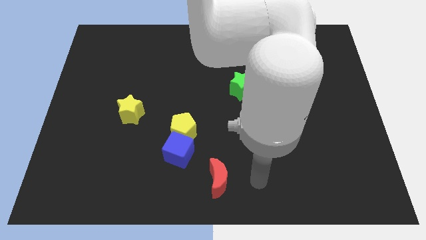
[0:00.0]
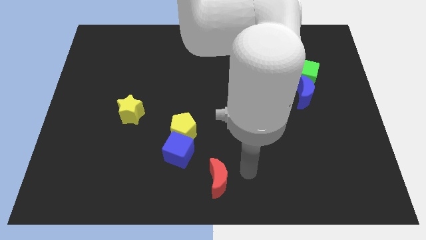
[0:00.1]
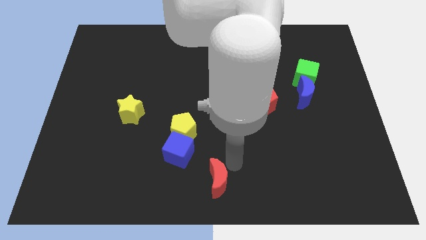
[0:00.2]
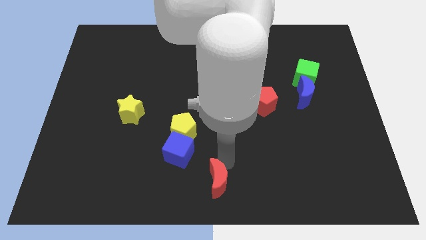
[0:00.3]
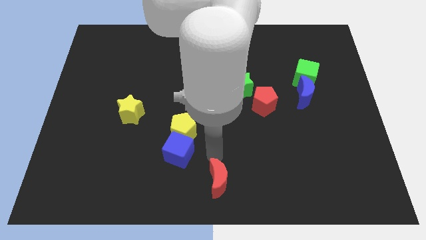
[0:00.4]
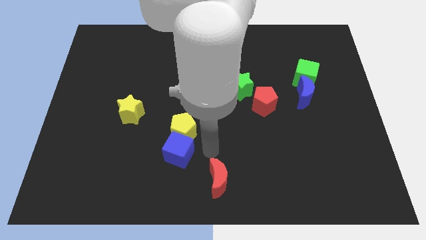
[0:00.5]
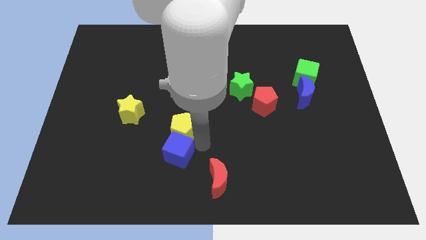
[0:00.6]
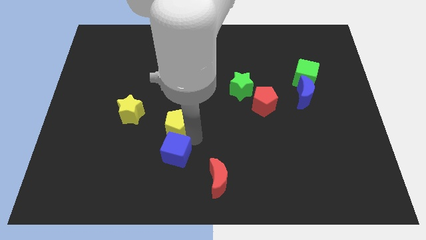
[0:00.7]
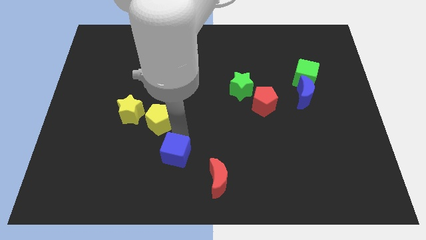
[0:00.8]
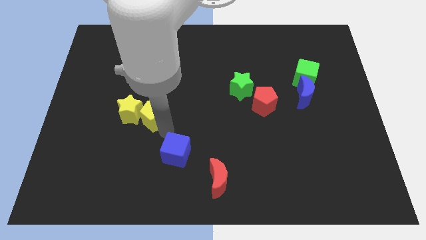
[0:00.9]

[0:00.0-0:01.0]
separate the blue cube from the yellow pentagon

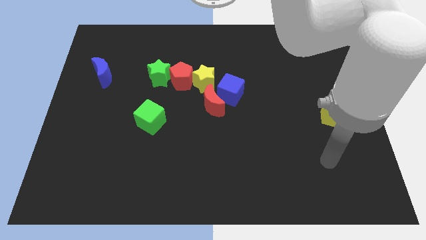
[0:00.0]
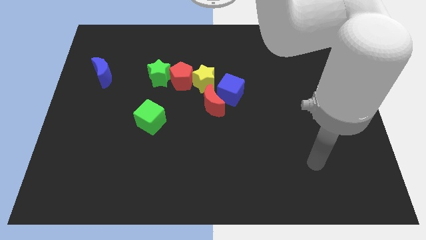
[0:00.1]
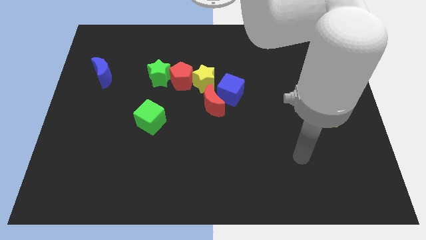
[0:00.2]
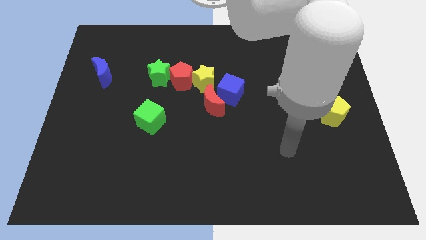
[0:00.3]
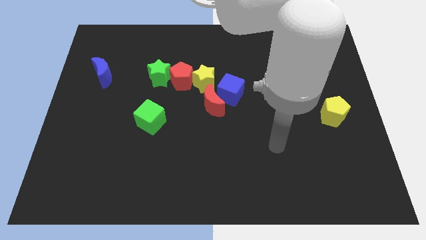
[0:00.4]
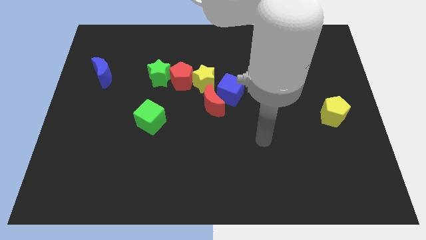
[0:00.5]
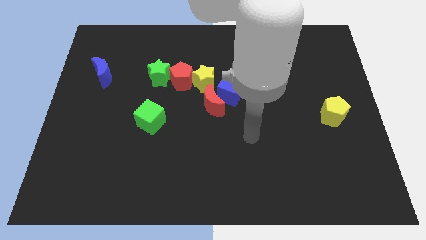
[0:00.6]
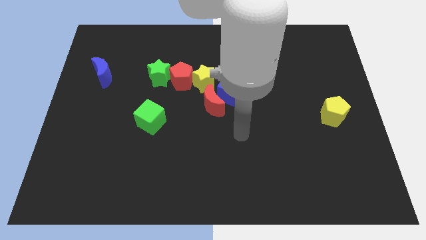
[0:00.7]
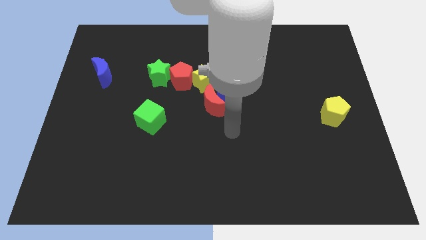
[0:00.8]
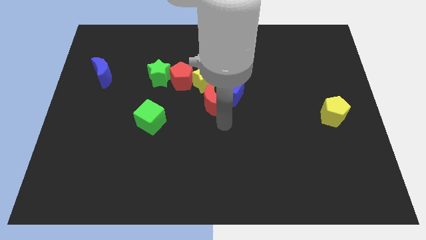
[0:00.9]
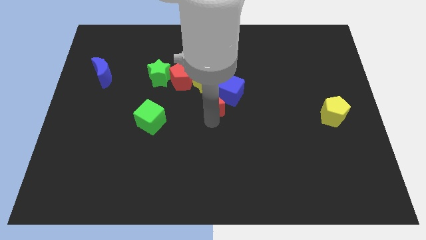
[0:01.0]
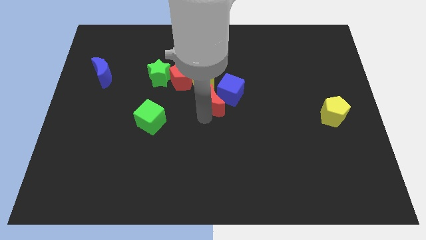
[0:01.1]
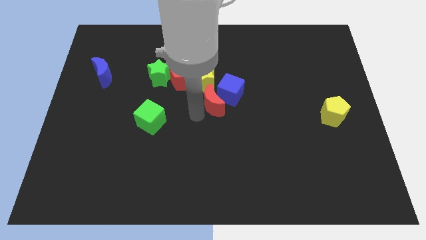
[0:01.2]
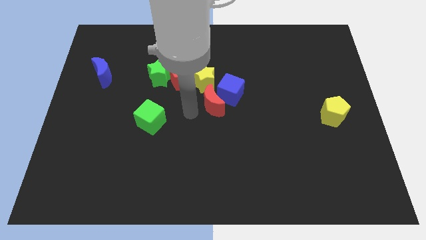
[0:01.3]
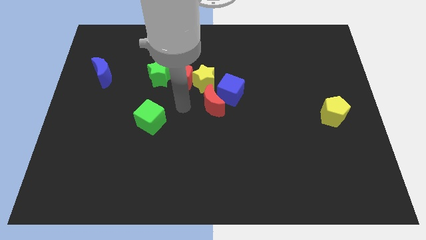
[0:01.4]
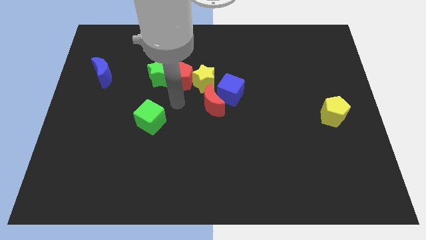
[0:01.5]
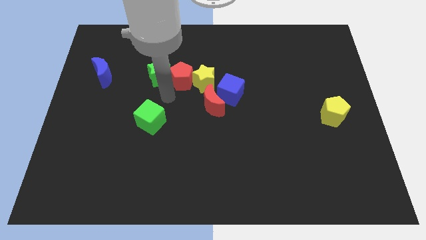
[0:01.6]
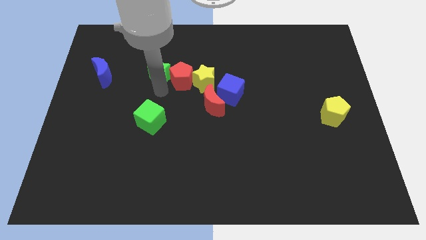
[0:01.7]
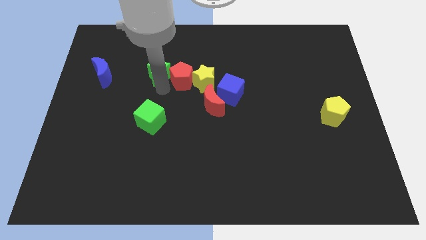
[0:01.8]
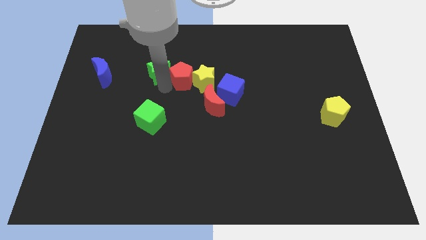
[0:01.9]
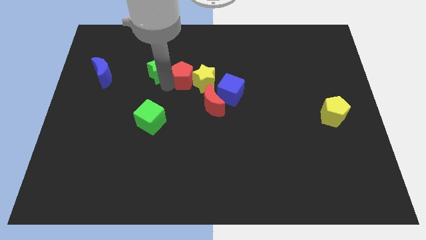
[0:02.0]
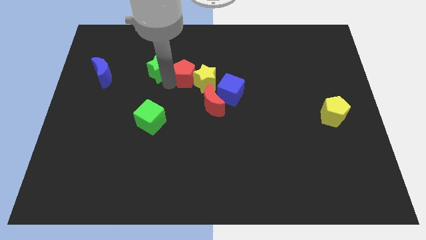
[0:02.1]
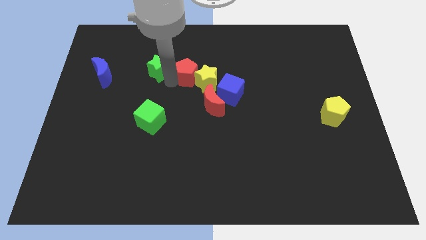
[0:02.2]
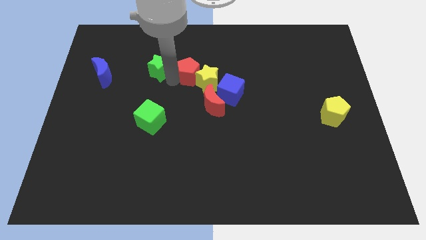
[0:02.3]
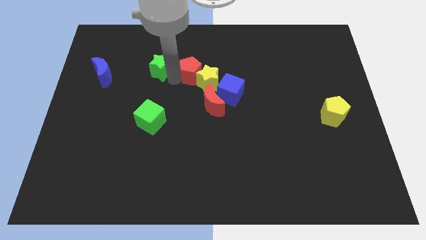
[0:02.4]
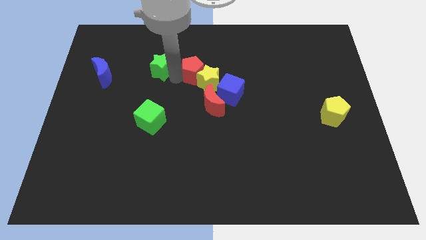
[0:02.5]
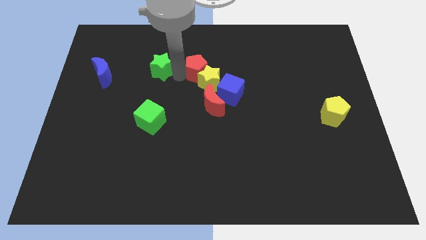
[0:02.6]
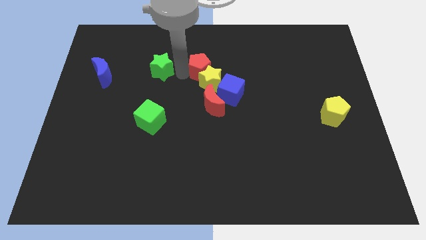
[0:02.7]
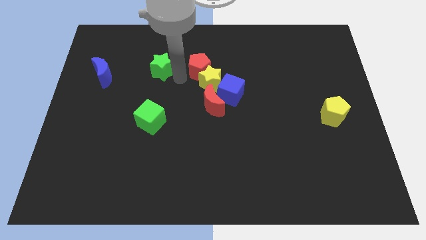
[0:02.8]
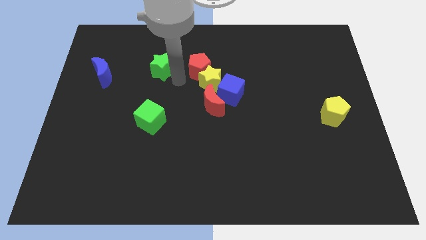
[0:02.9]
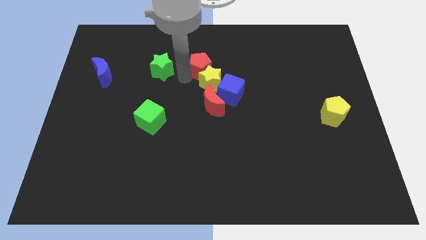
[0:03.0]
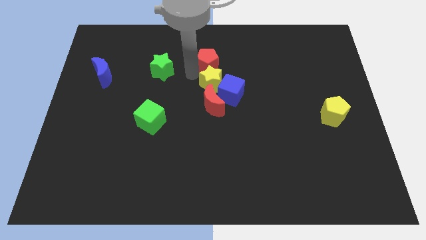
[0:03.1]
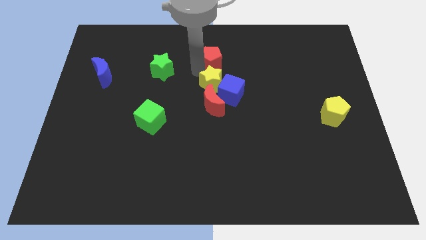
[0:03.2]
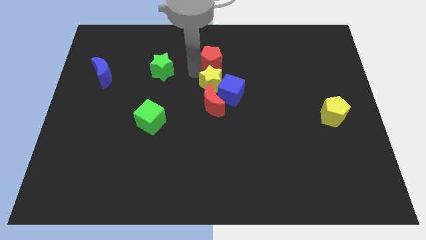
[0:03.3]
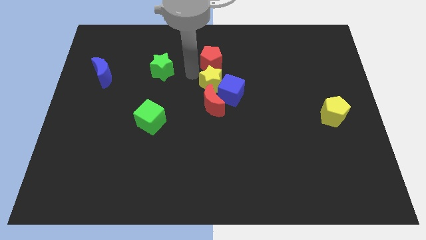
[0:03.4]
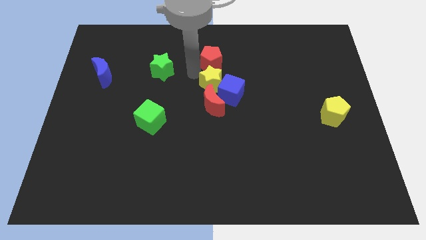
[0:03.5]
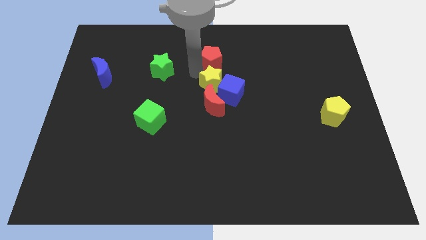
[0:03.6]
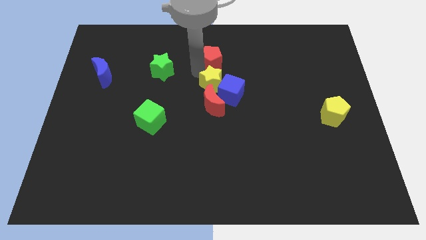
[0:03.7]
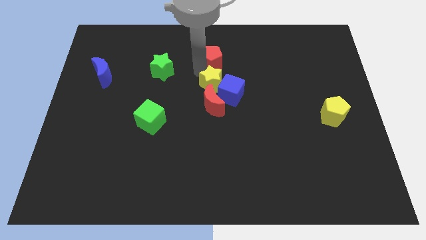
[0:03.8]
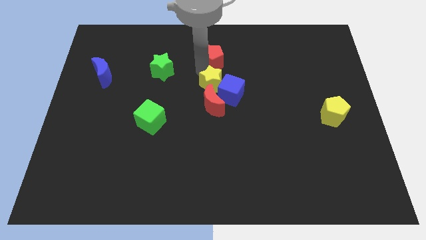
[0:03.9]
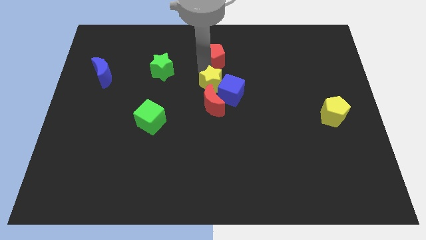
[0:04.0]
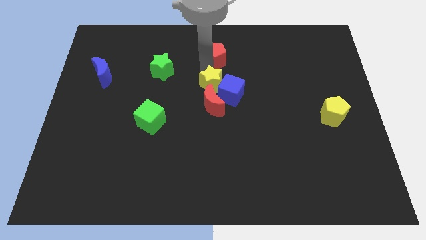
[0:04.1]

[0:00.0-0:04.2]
pull the red pentagon apart from the yellow star and green star

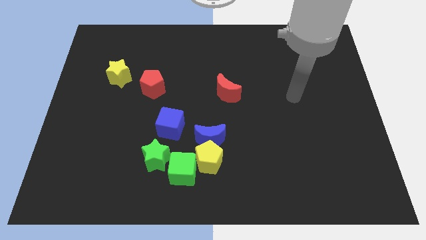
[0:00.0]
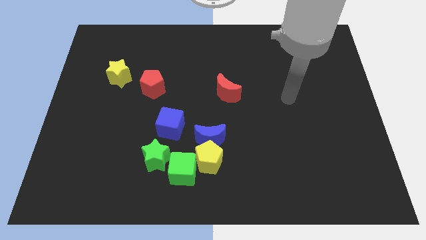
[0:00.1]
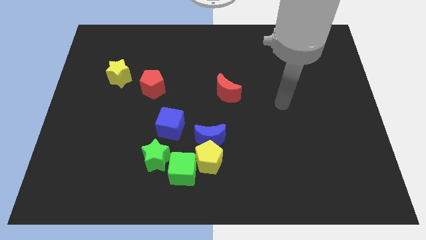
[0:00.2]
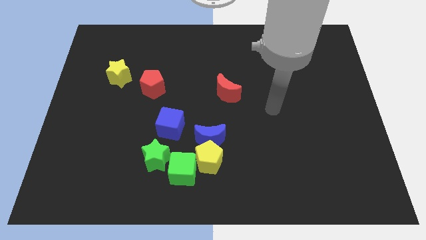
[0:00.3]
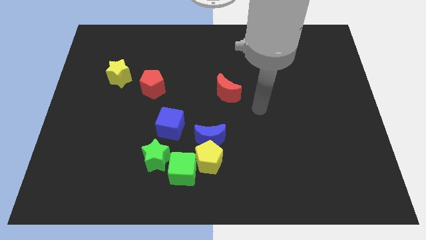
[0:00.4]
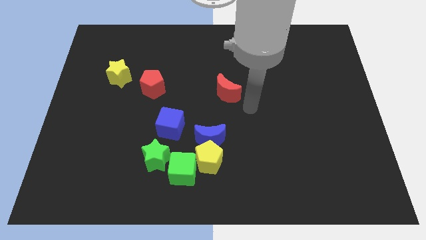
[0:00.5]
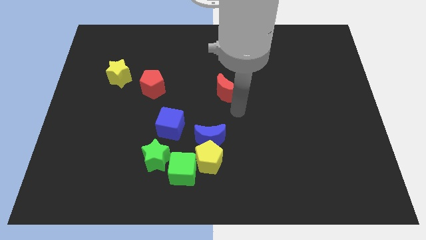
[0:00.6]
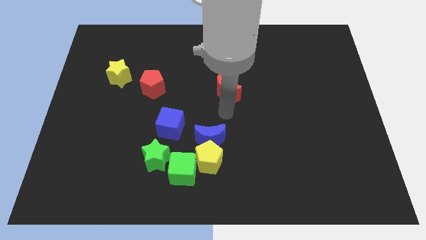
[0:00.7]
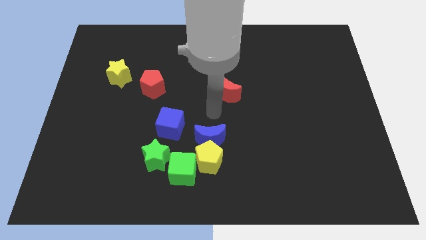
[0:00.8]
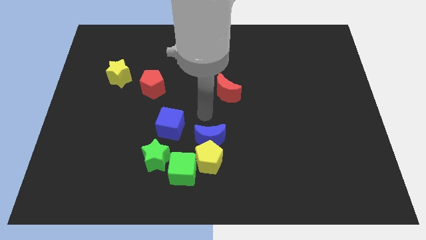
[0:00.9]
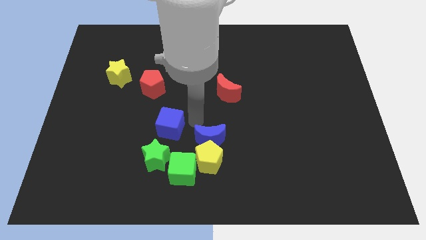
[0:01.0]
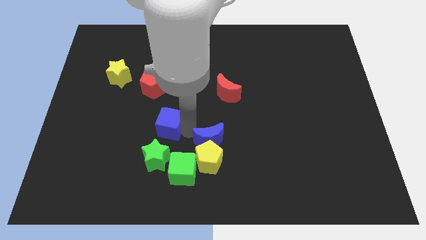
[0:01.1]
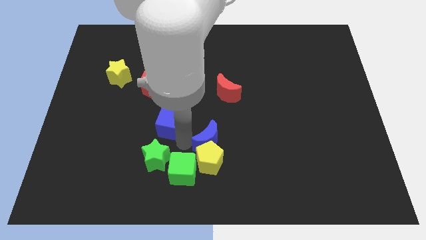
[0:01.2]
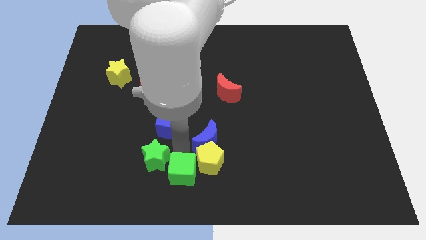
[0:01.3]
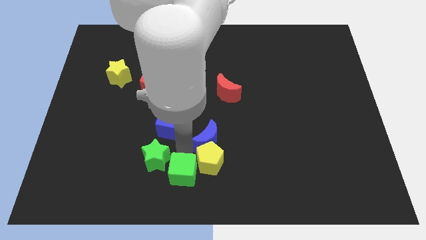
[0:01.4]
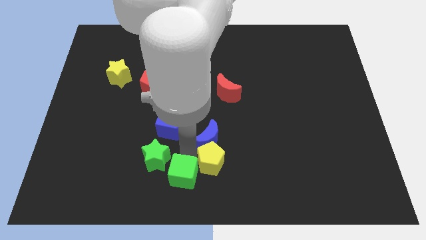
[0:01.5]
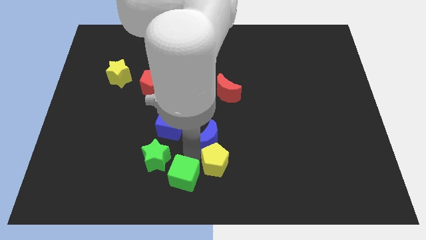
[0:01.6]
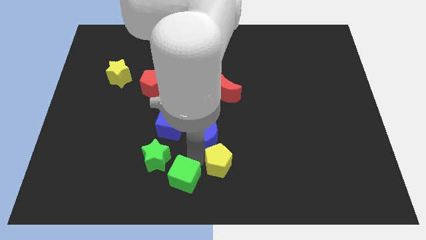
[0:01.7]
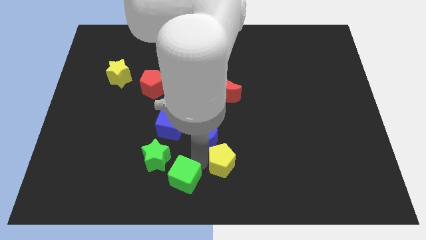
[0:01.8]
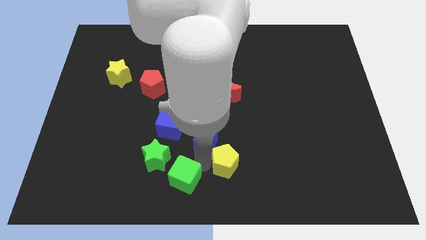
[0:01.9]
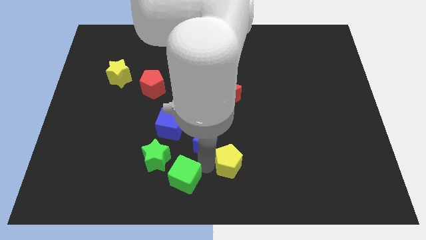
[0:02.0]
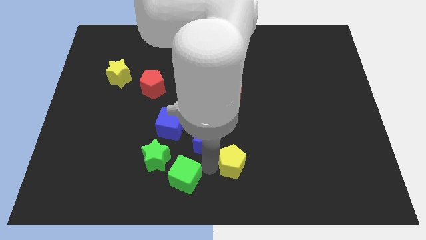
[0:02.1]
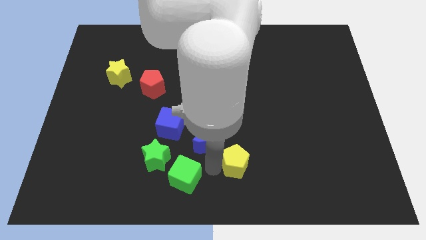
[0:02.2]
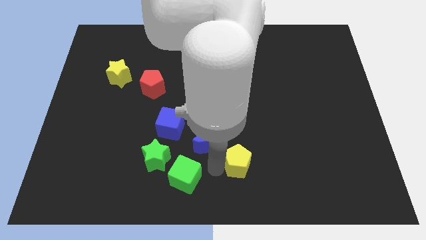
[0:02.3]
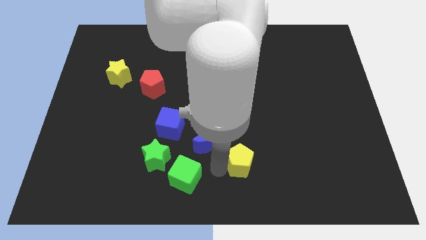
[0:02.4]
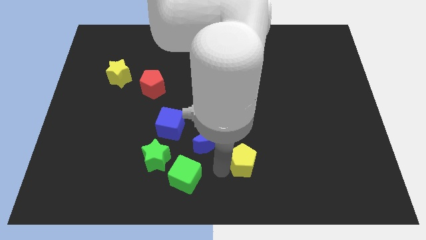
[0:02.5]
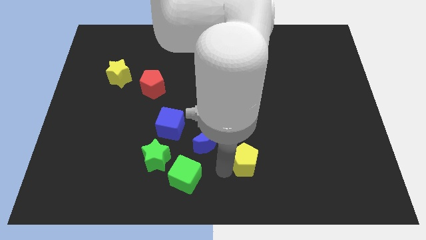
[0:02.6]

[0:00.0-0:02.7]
separate the yellow pentagon from the blue moon and green cube

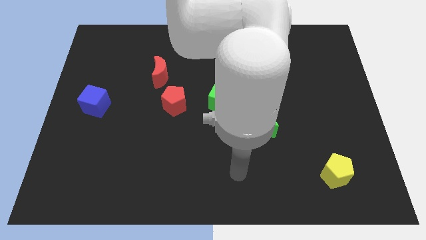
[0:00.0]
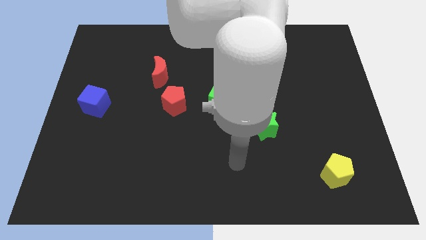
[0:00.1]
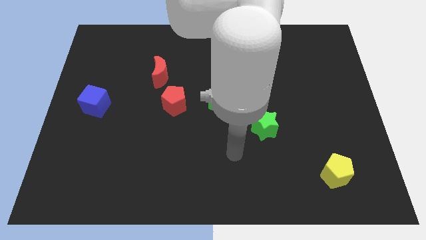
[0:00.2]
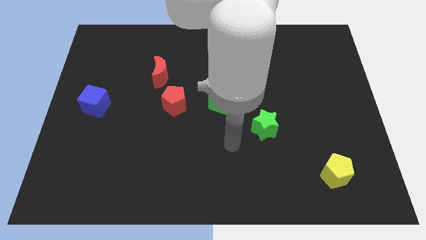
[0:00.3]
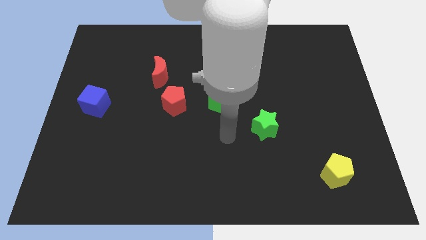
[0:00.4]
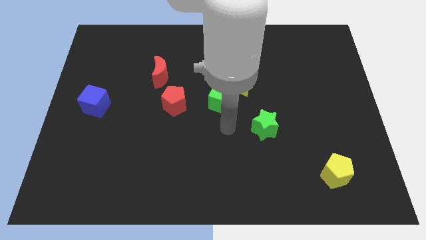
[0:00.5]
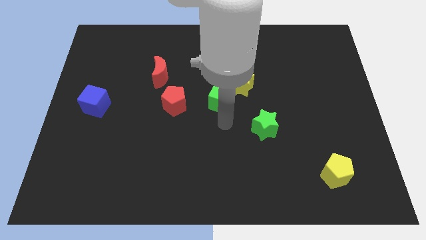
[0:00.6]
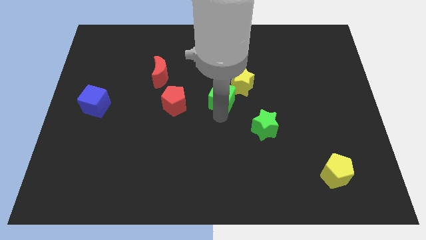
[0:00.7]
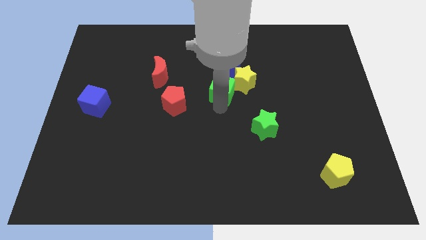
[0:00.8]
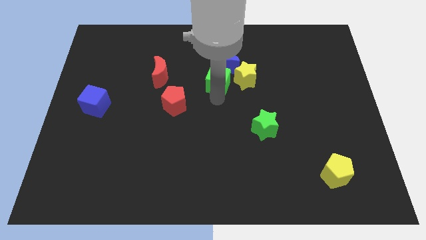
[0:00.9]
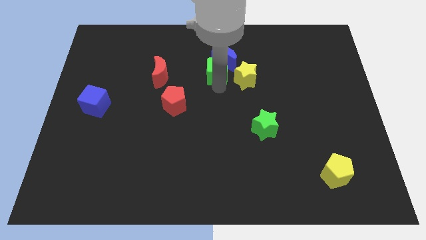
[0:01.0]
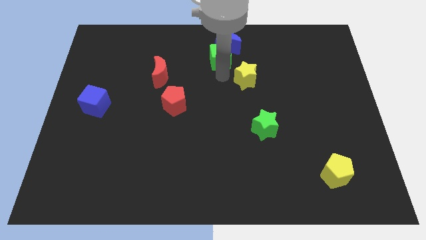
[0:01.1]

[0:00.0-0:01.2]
pull the yellow star apart from the blue moon and green cube

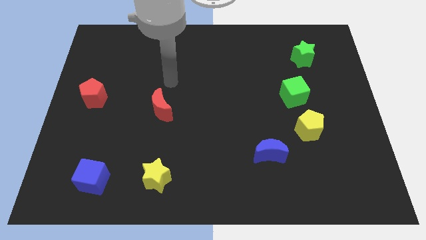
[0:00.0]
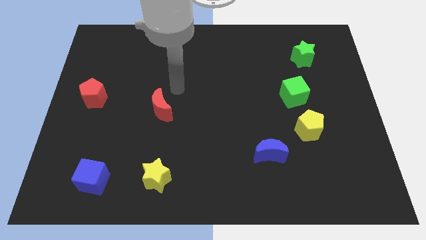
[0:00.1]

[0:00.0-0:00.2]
move the green cube away from the yellow pentagon
